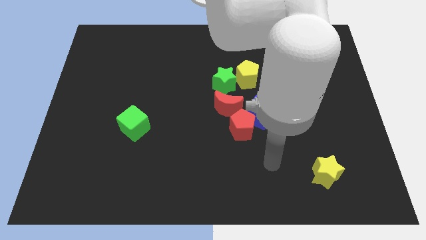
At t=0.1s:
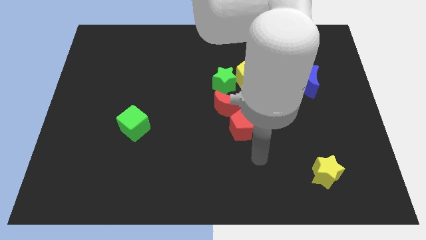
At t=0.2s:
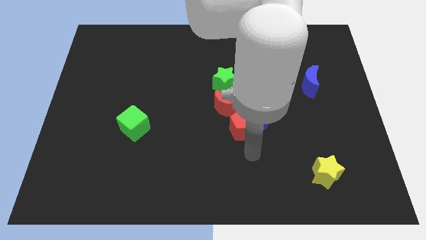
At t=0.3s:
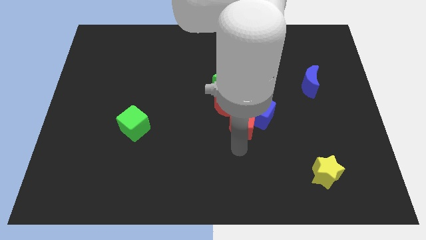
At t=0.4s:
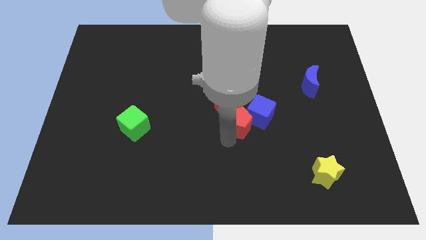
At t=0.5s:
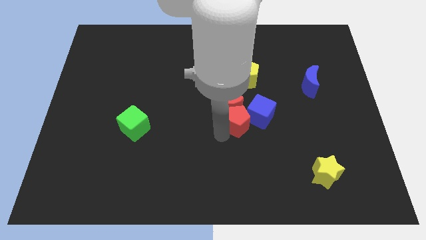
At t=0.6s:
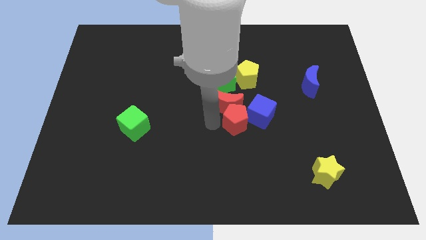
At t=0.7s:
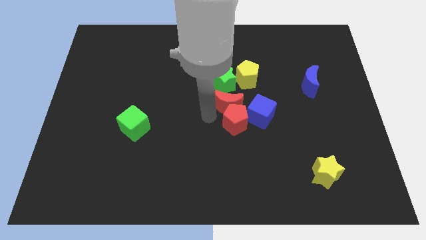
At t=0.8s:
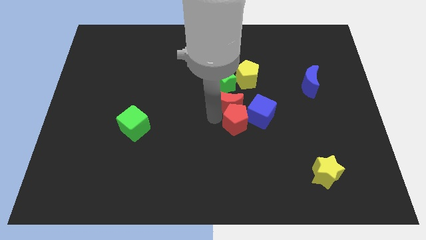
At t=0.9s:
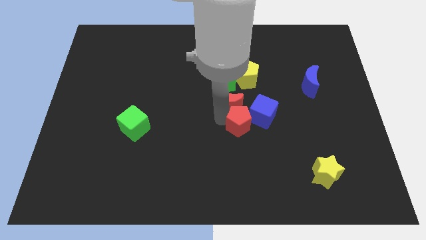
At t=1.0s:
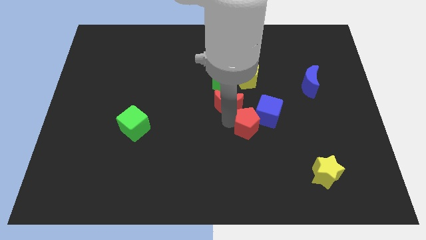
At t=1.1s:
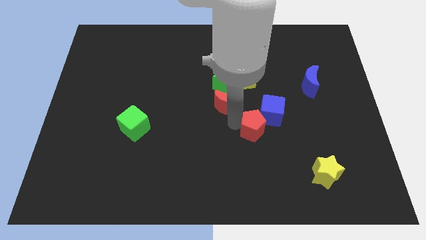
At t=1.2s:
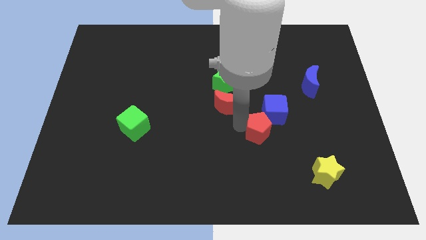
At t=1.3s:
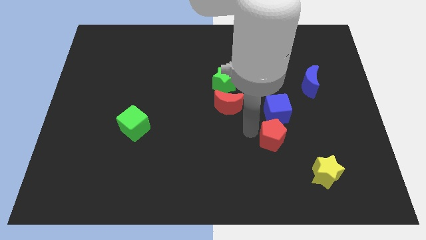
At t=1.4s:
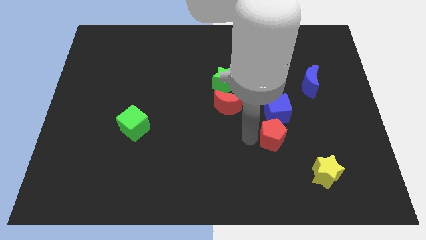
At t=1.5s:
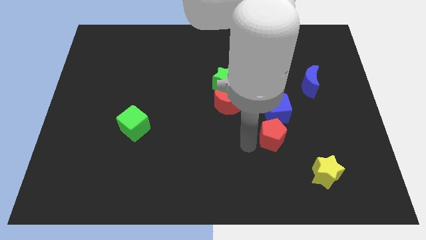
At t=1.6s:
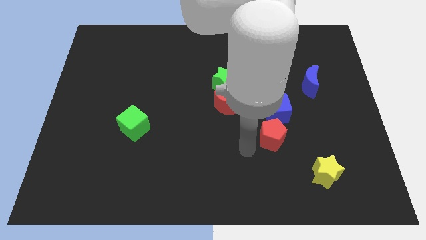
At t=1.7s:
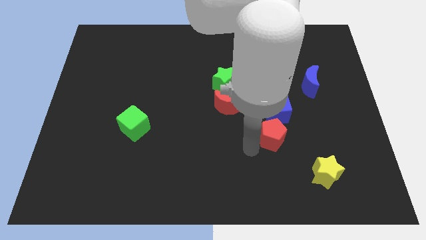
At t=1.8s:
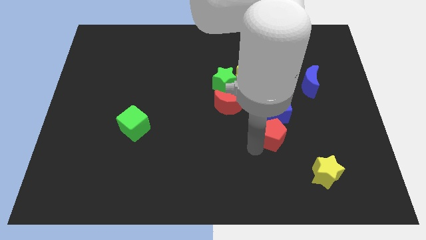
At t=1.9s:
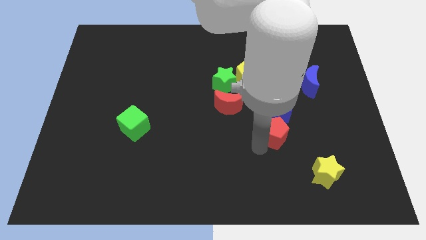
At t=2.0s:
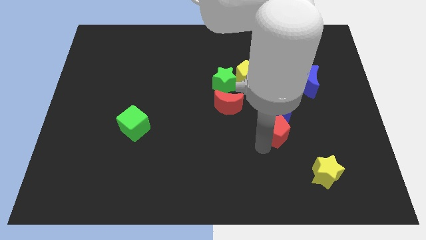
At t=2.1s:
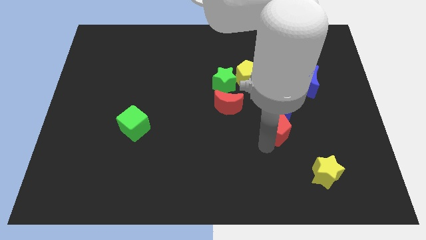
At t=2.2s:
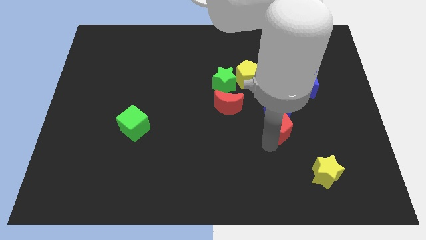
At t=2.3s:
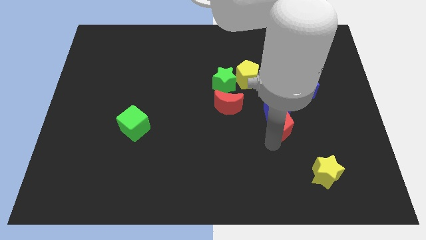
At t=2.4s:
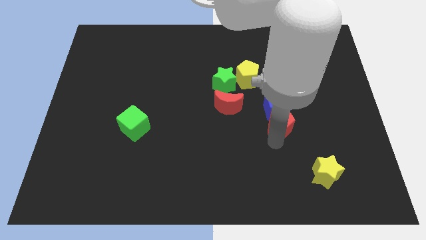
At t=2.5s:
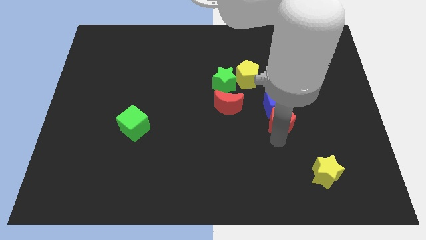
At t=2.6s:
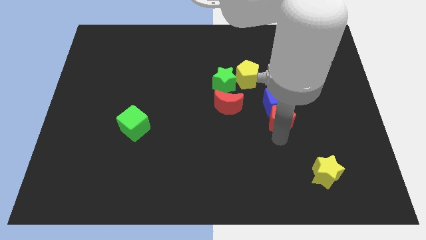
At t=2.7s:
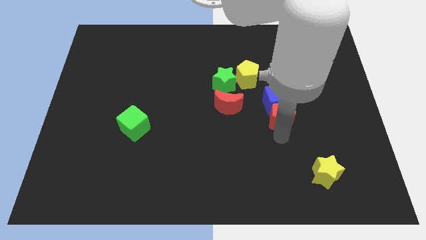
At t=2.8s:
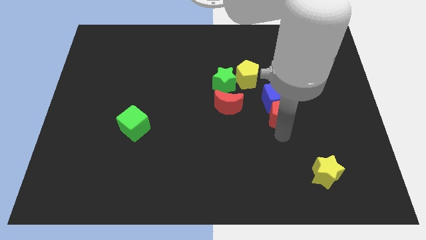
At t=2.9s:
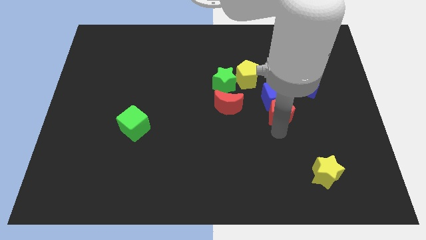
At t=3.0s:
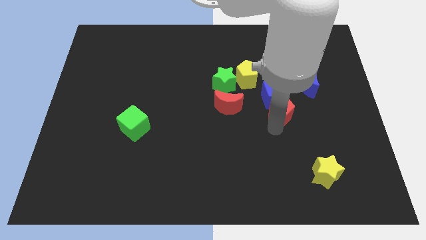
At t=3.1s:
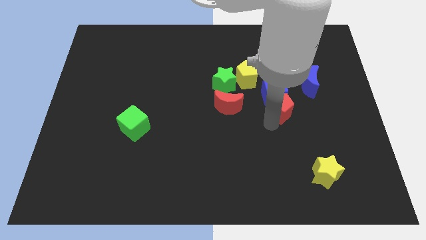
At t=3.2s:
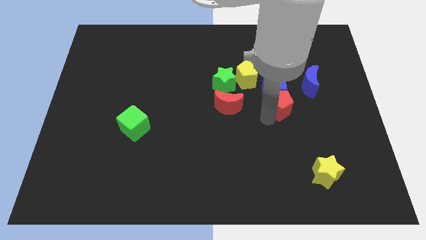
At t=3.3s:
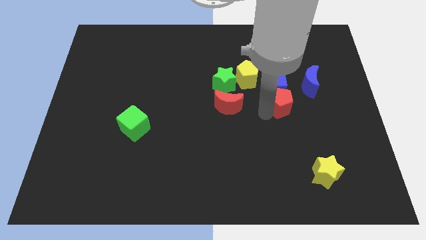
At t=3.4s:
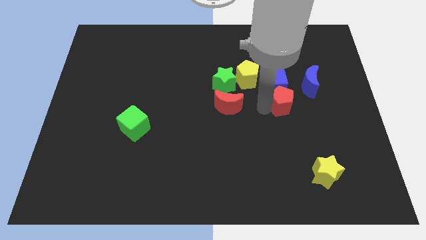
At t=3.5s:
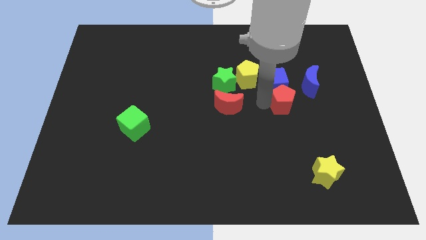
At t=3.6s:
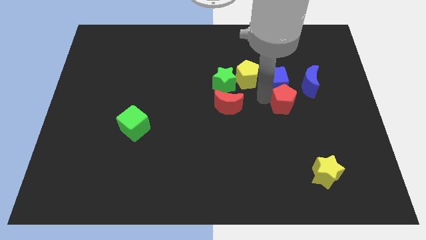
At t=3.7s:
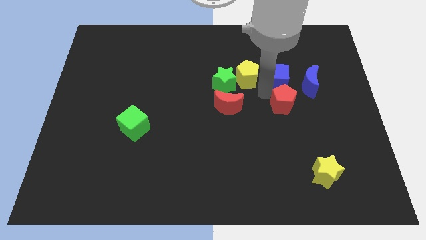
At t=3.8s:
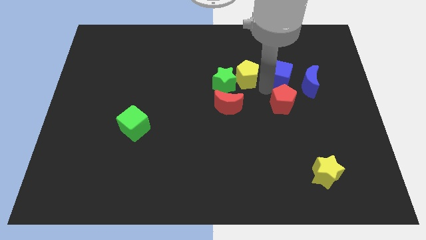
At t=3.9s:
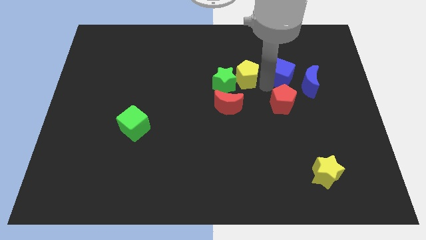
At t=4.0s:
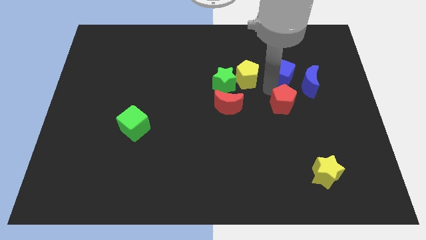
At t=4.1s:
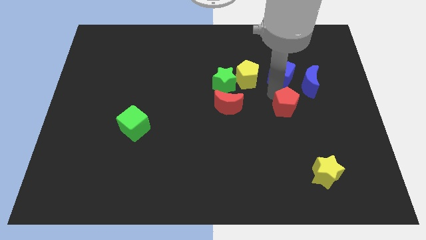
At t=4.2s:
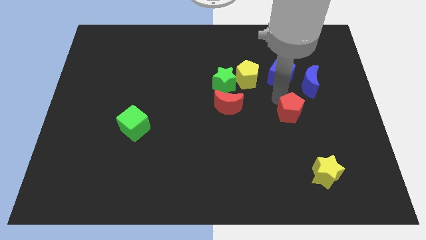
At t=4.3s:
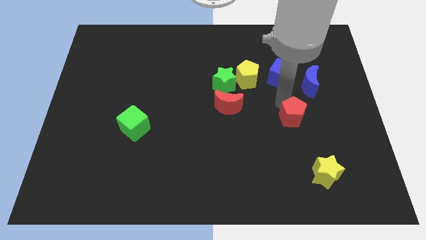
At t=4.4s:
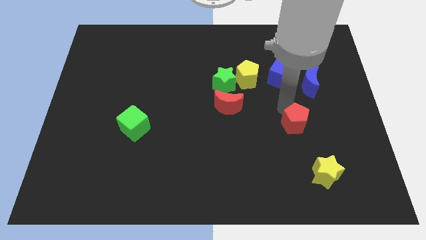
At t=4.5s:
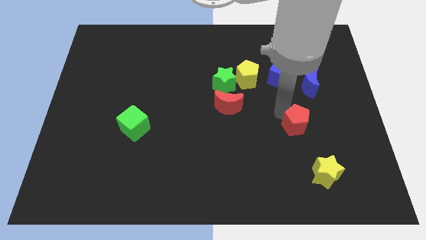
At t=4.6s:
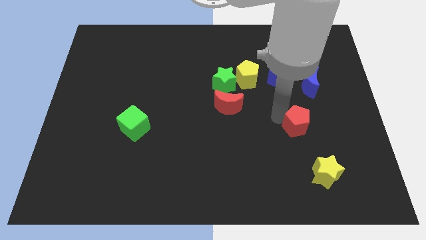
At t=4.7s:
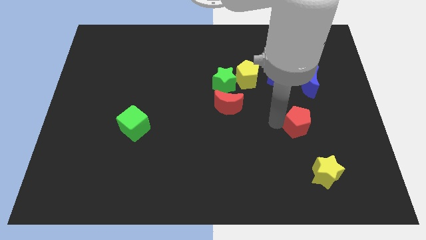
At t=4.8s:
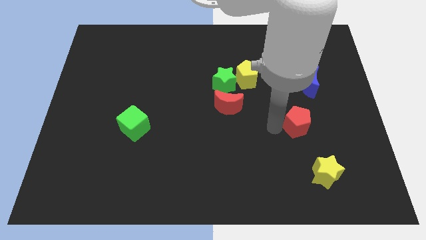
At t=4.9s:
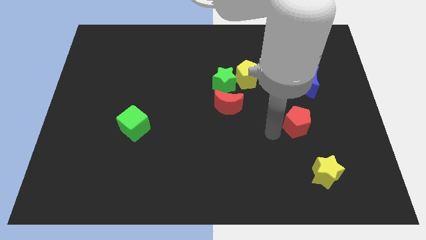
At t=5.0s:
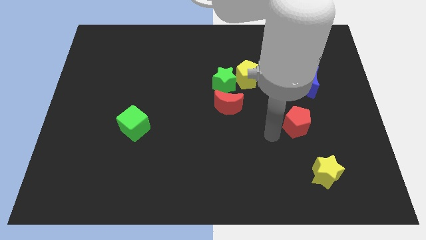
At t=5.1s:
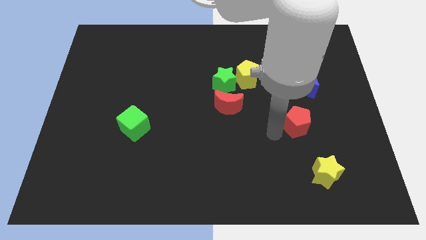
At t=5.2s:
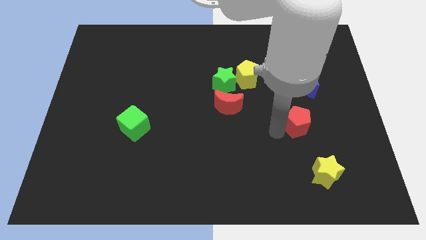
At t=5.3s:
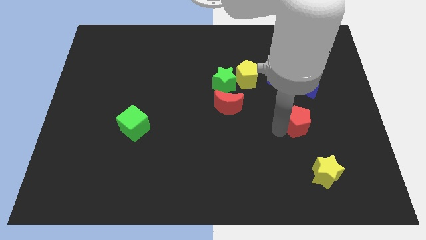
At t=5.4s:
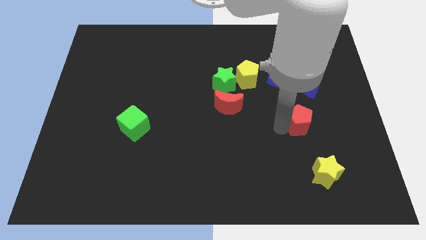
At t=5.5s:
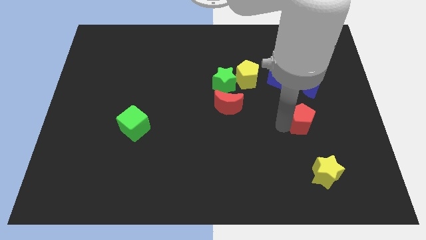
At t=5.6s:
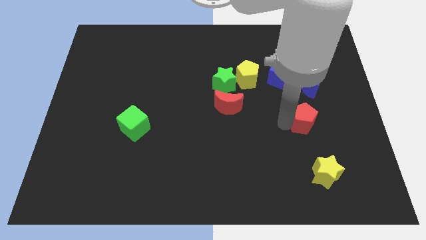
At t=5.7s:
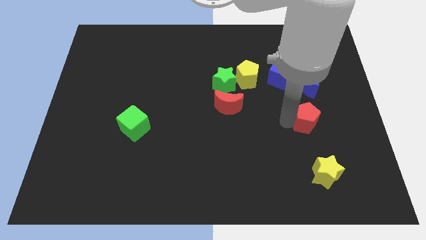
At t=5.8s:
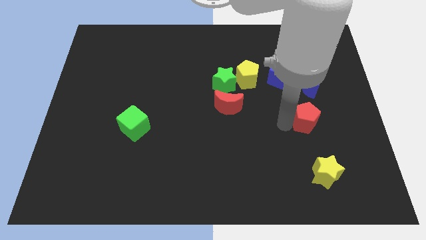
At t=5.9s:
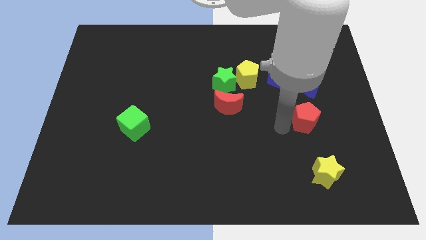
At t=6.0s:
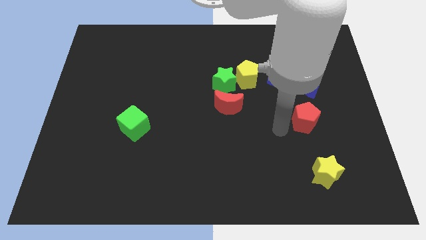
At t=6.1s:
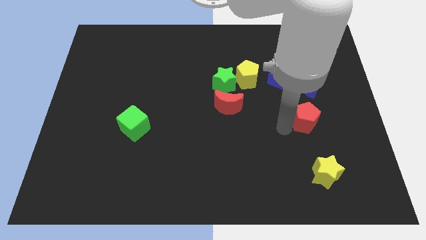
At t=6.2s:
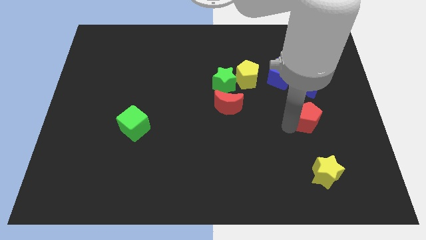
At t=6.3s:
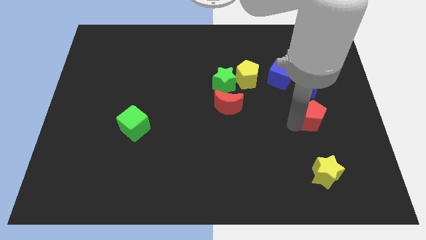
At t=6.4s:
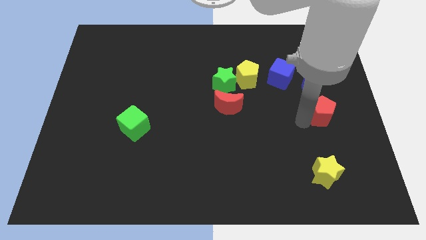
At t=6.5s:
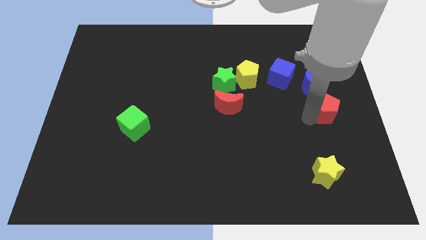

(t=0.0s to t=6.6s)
put the red pentagon to the right side of the board
